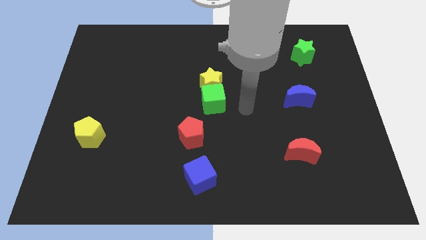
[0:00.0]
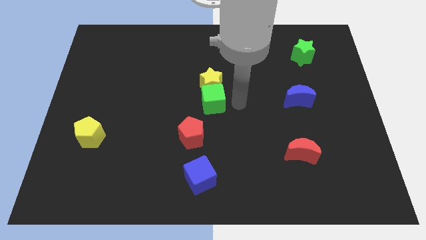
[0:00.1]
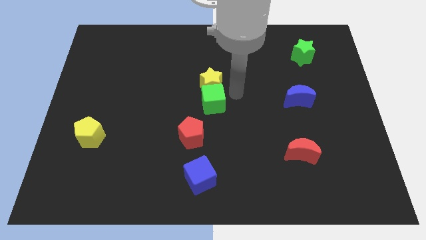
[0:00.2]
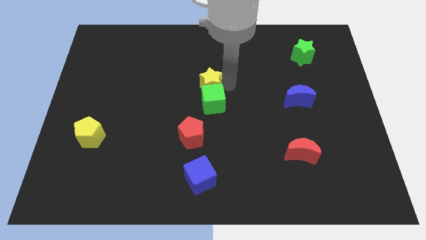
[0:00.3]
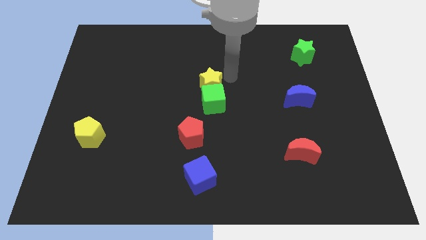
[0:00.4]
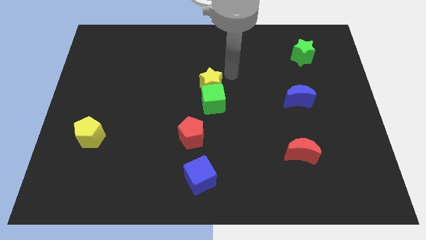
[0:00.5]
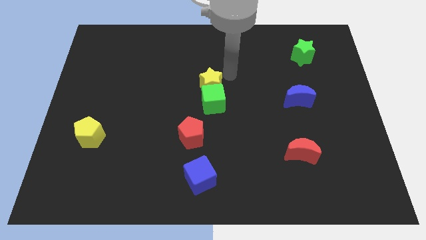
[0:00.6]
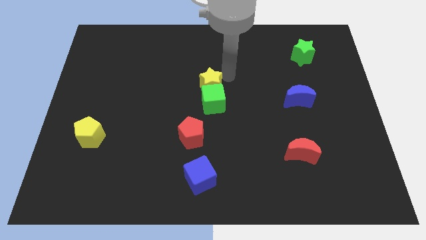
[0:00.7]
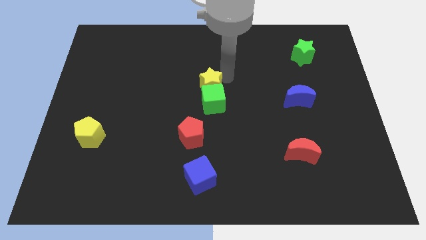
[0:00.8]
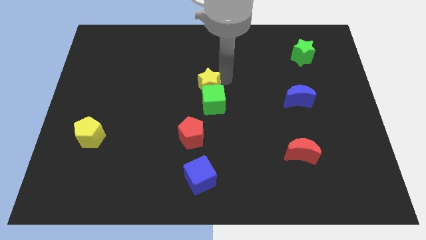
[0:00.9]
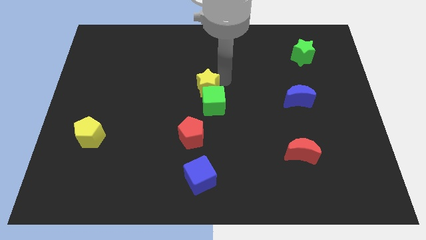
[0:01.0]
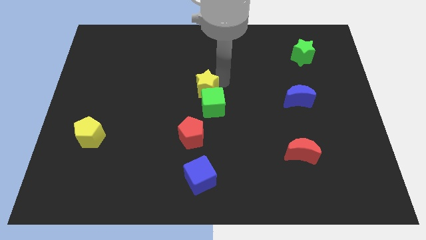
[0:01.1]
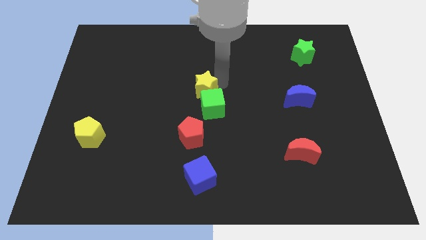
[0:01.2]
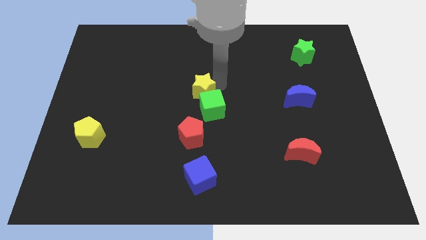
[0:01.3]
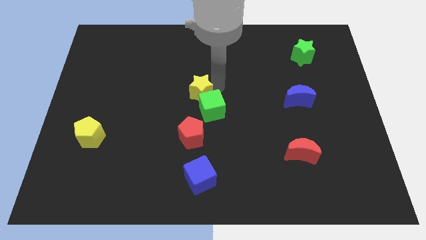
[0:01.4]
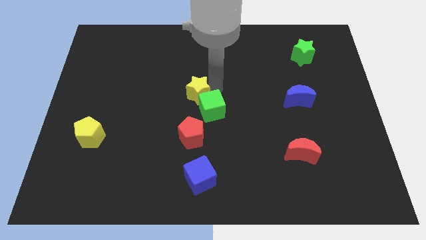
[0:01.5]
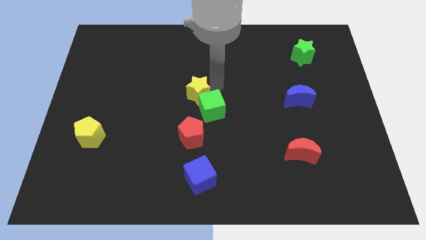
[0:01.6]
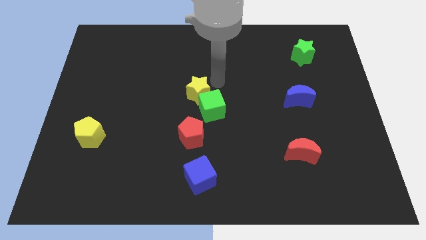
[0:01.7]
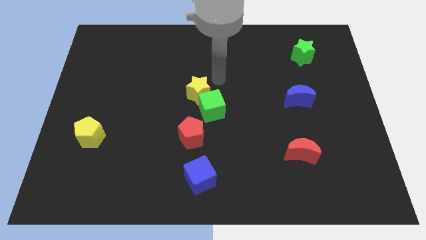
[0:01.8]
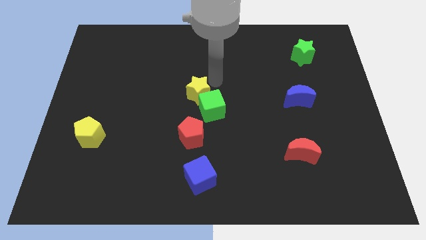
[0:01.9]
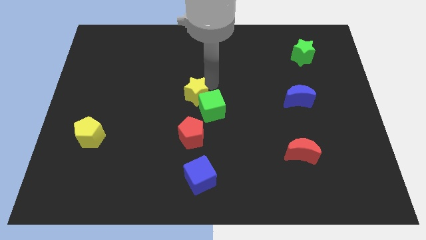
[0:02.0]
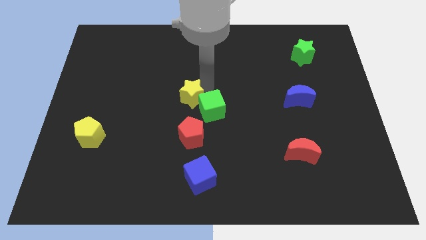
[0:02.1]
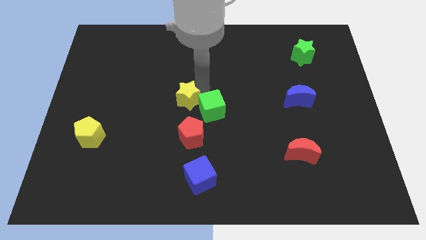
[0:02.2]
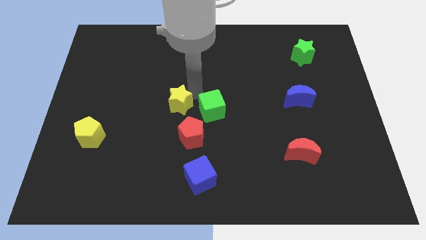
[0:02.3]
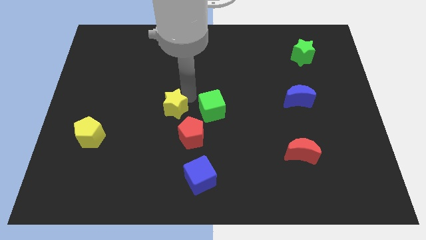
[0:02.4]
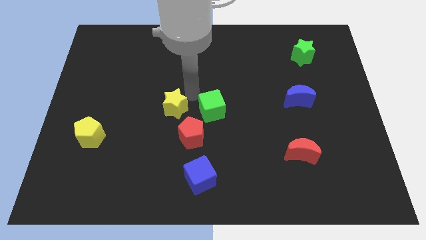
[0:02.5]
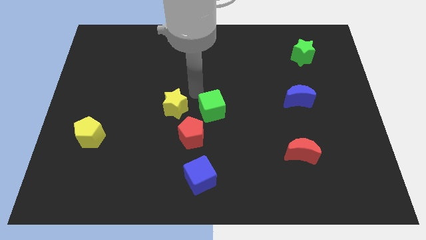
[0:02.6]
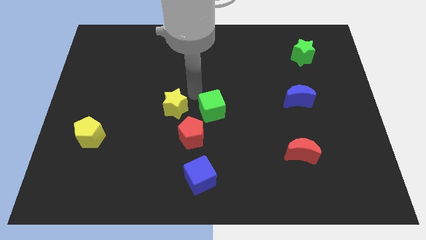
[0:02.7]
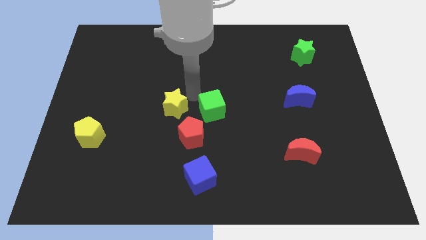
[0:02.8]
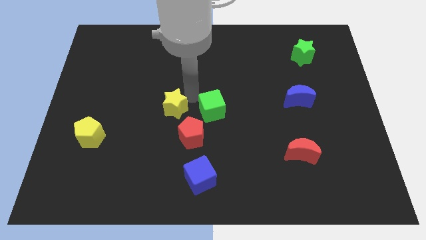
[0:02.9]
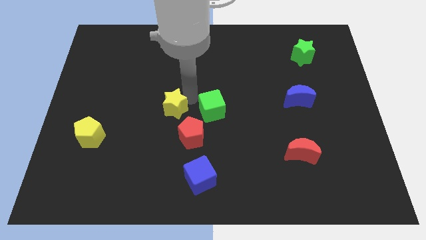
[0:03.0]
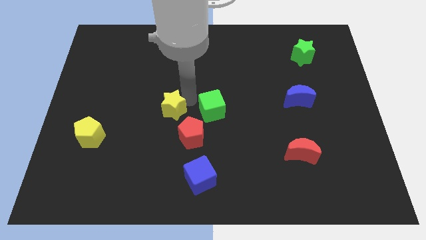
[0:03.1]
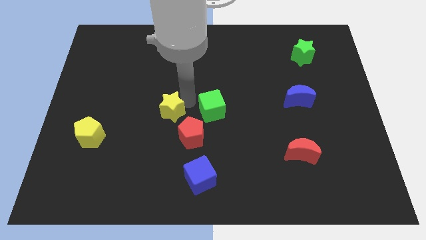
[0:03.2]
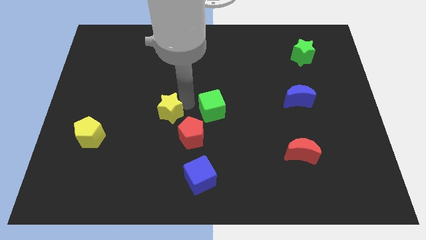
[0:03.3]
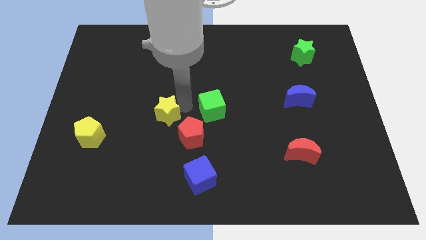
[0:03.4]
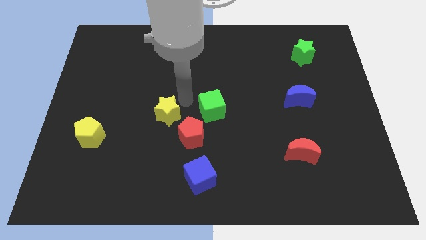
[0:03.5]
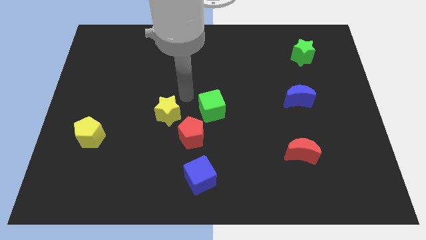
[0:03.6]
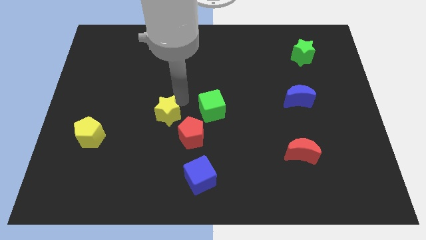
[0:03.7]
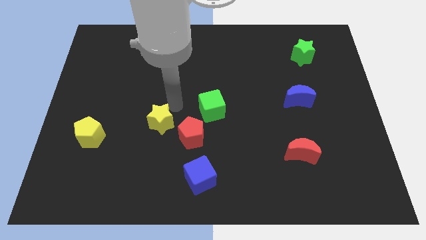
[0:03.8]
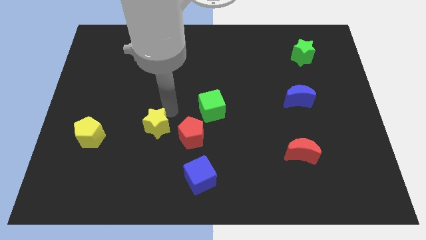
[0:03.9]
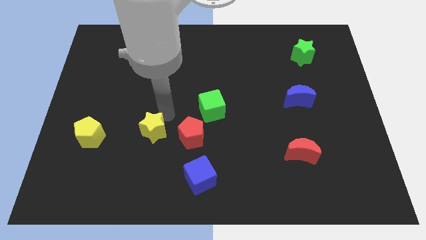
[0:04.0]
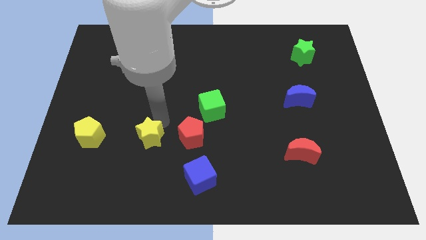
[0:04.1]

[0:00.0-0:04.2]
move the yellow star diagonally downwards and left

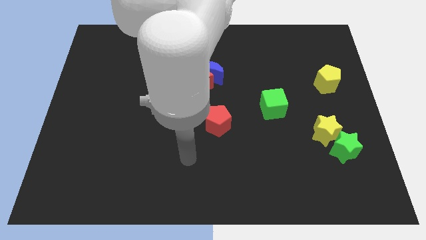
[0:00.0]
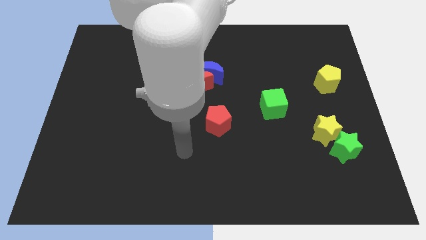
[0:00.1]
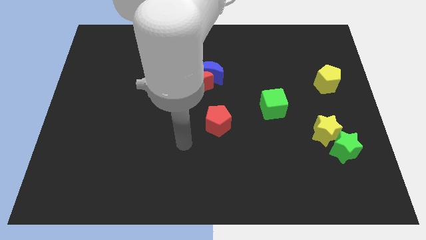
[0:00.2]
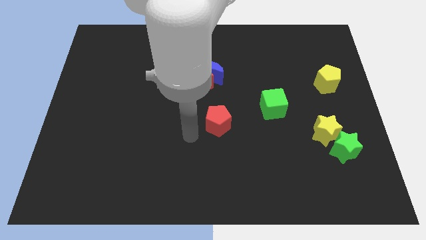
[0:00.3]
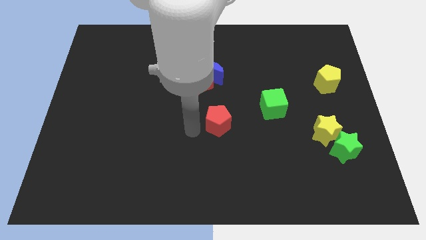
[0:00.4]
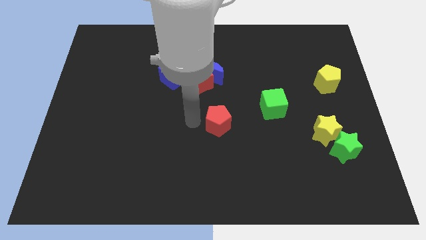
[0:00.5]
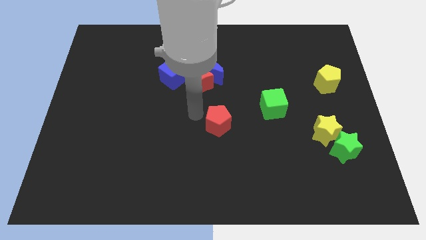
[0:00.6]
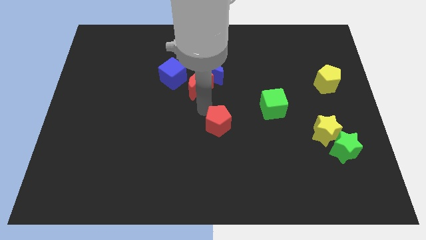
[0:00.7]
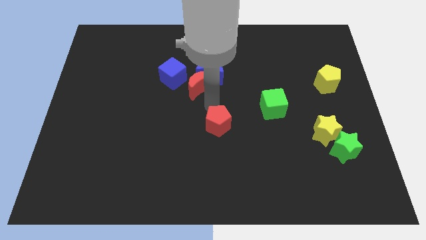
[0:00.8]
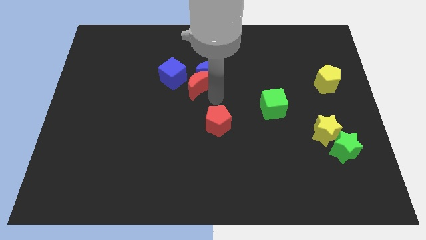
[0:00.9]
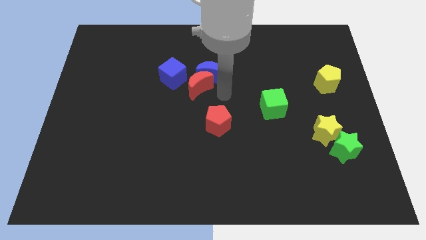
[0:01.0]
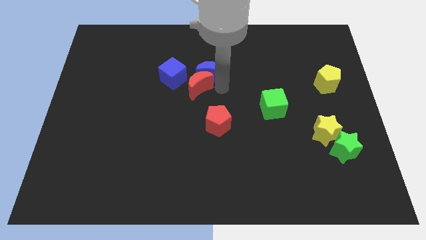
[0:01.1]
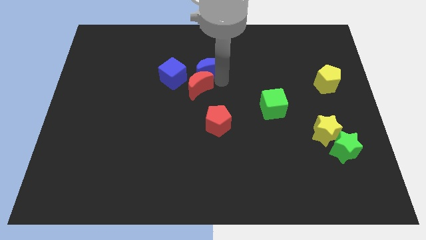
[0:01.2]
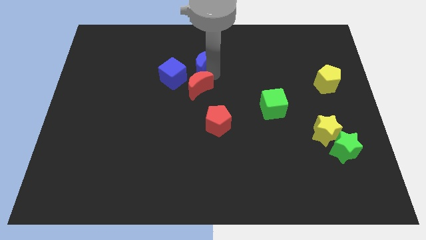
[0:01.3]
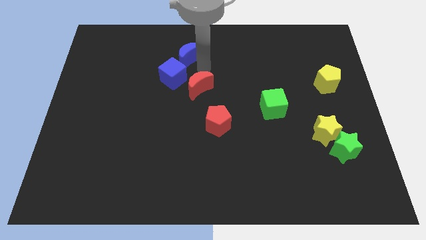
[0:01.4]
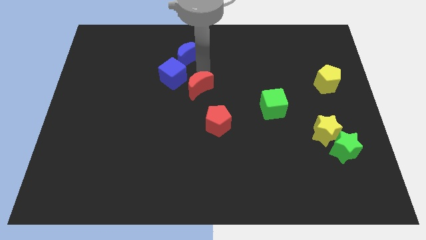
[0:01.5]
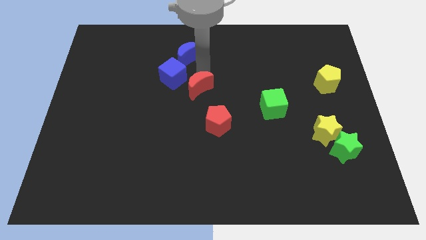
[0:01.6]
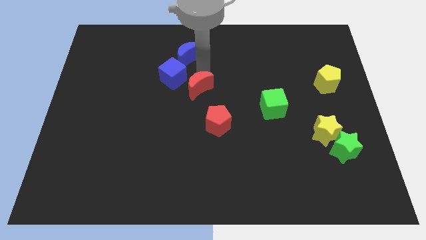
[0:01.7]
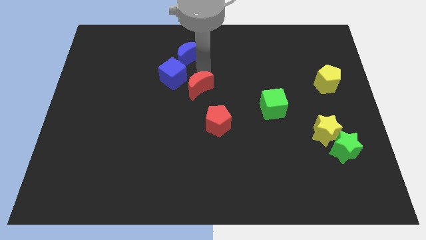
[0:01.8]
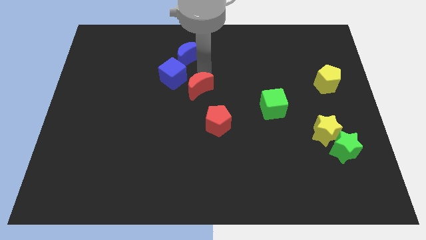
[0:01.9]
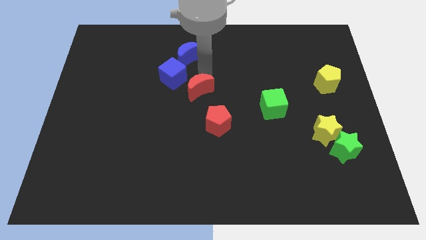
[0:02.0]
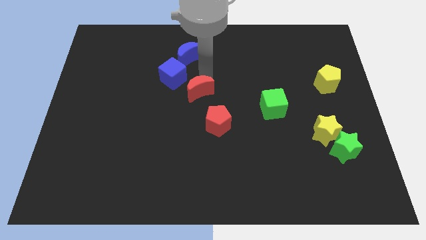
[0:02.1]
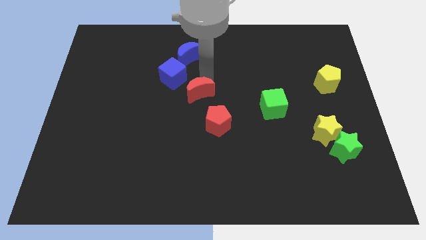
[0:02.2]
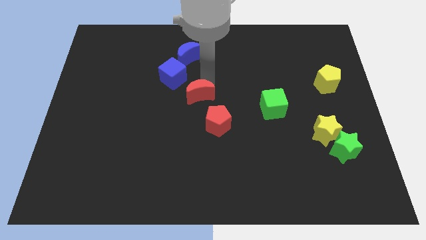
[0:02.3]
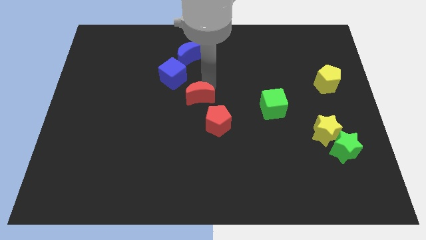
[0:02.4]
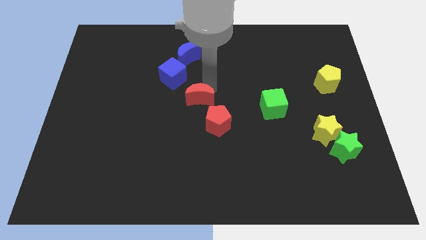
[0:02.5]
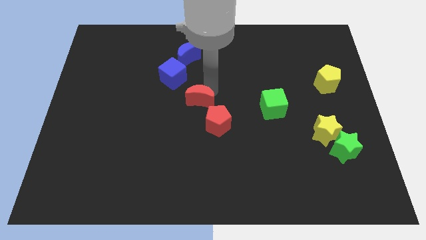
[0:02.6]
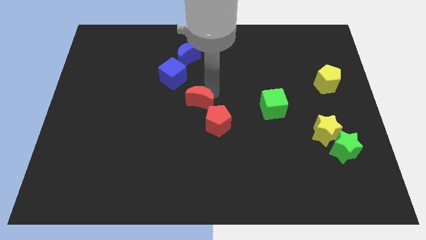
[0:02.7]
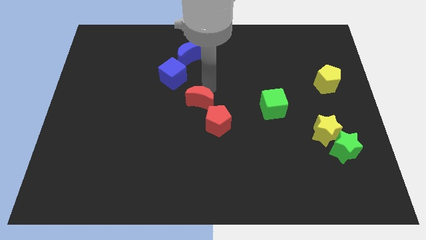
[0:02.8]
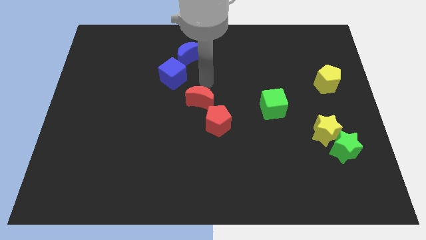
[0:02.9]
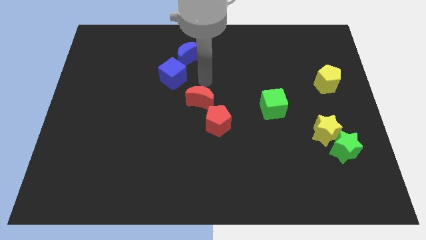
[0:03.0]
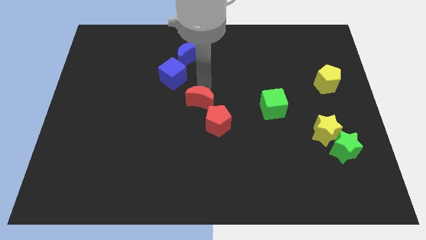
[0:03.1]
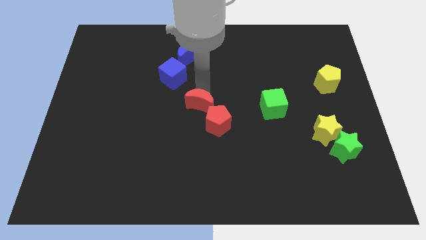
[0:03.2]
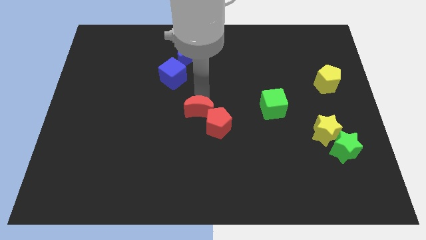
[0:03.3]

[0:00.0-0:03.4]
slide the red moon a little downwards

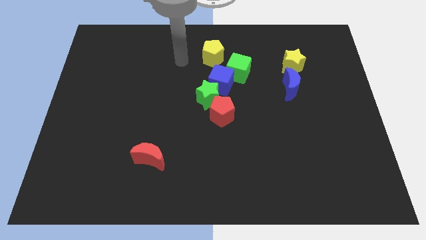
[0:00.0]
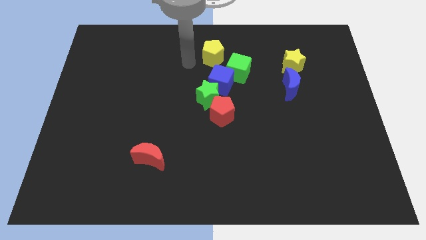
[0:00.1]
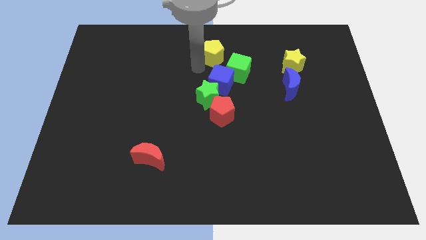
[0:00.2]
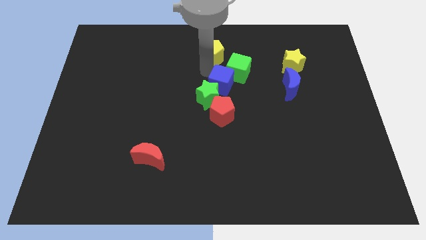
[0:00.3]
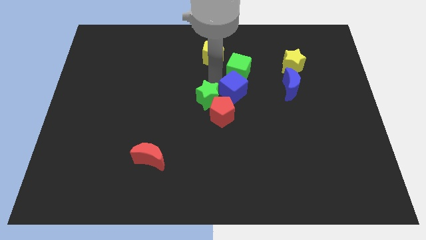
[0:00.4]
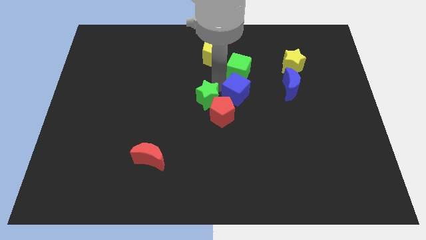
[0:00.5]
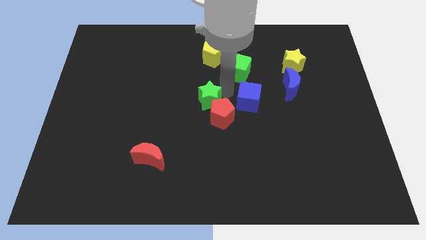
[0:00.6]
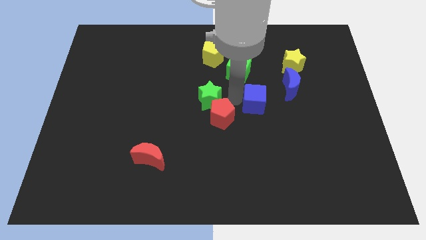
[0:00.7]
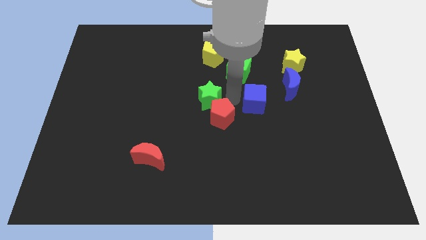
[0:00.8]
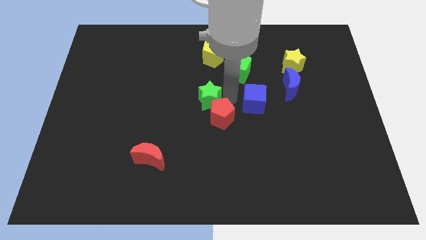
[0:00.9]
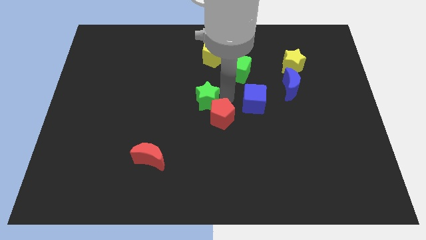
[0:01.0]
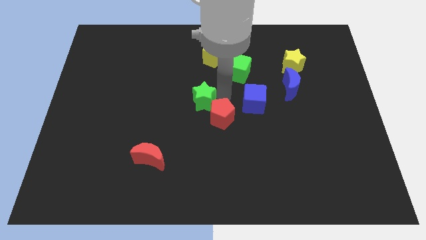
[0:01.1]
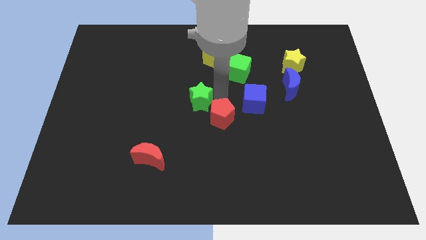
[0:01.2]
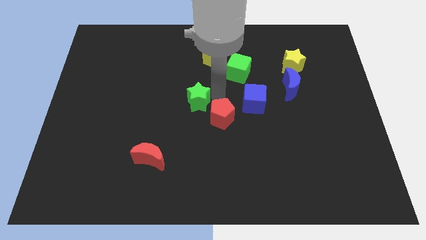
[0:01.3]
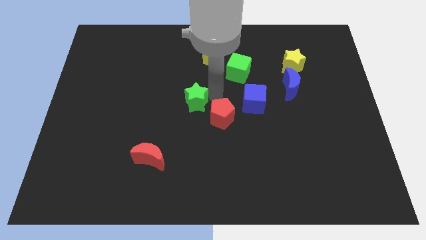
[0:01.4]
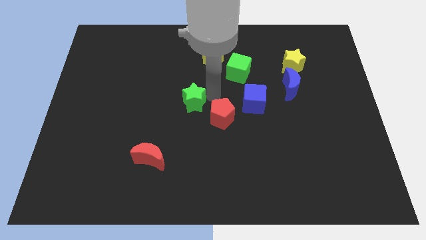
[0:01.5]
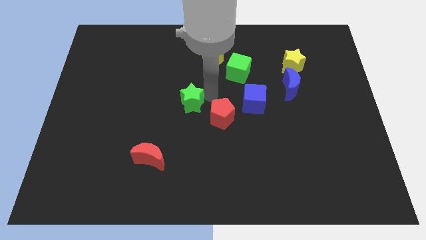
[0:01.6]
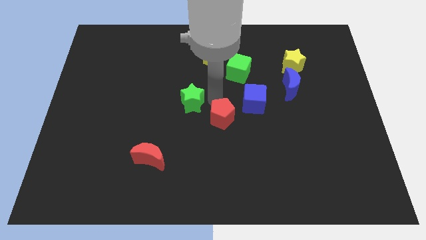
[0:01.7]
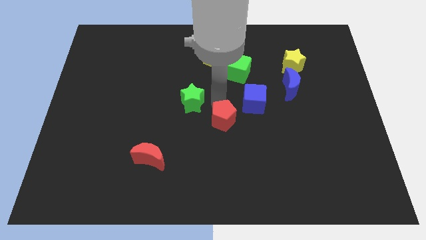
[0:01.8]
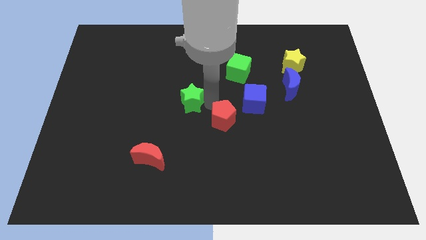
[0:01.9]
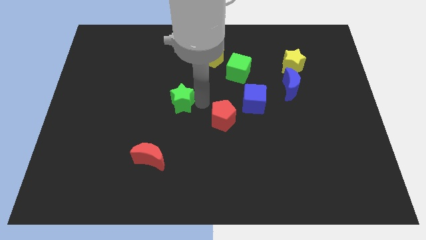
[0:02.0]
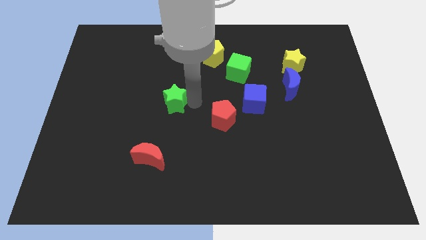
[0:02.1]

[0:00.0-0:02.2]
slightly move the green star to the left
